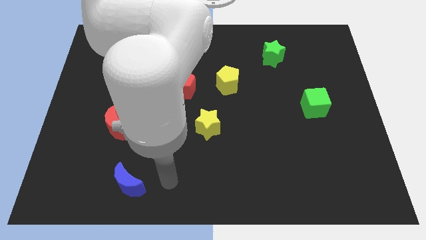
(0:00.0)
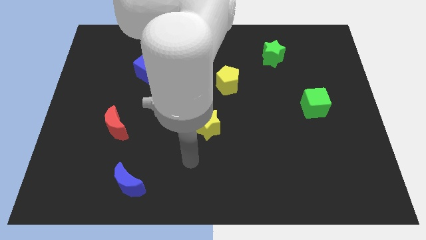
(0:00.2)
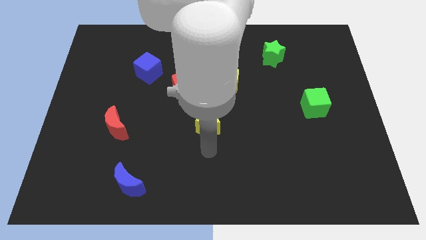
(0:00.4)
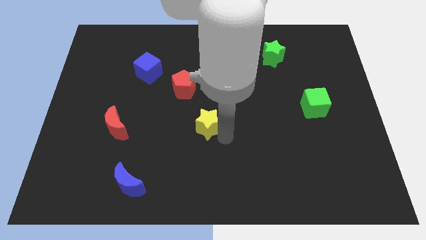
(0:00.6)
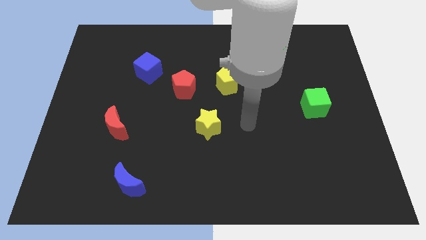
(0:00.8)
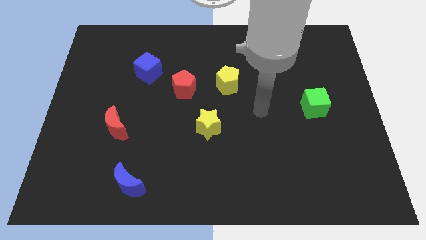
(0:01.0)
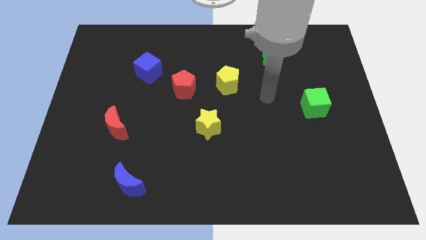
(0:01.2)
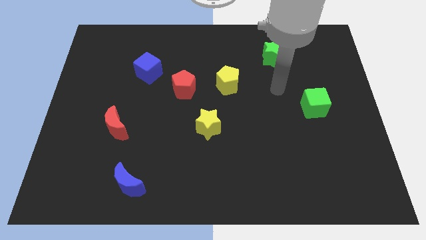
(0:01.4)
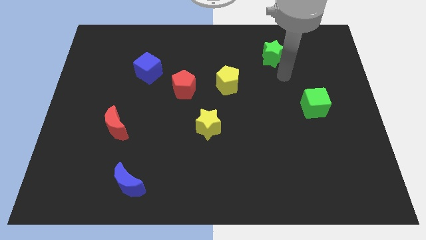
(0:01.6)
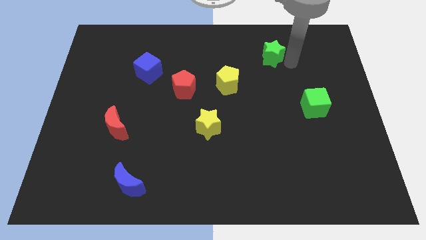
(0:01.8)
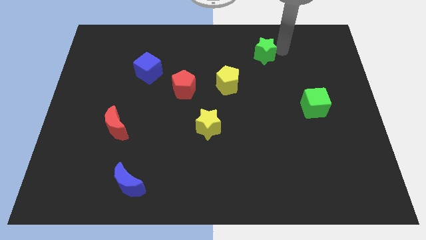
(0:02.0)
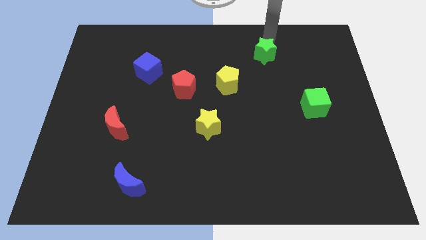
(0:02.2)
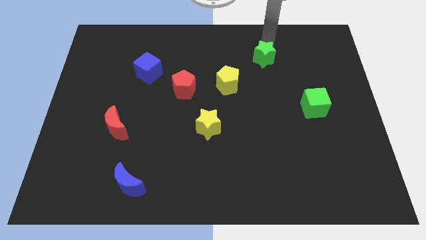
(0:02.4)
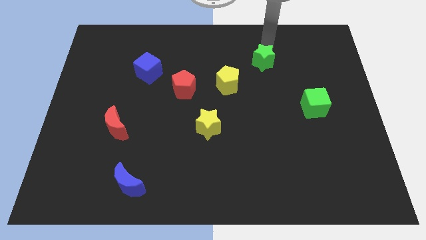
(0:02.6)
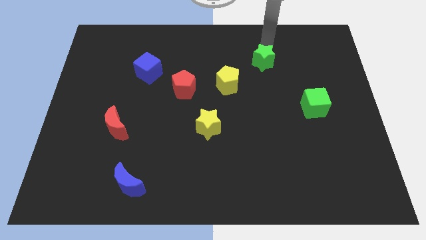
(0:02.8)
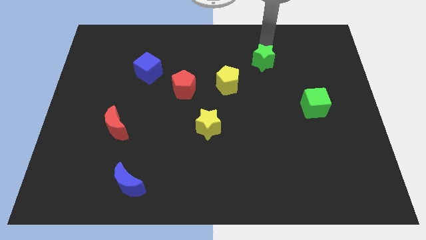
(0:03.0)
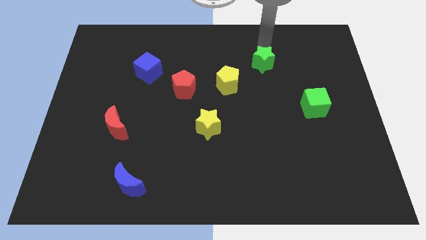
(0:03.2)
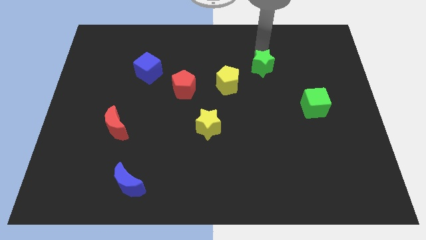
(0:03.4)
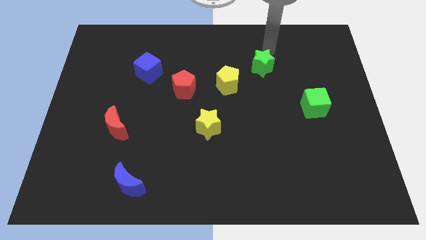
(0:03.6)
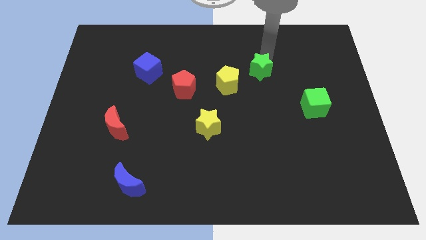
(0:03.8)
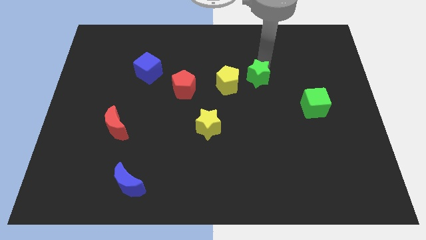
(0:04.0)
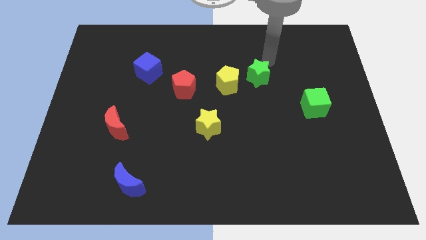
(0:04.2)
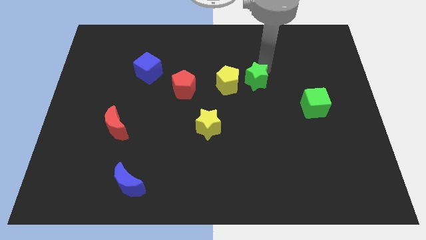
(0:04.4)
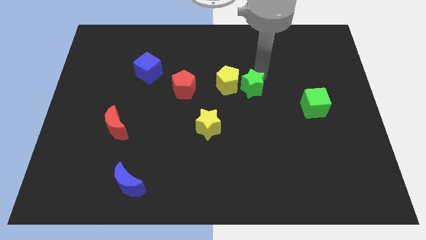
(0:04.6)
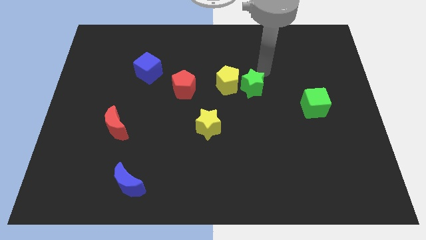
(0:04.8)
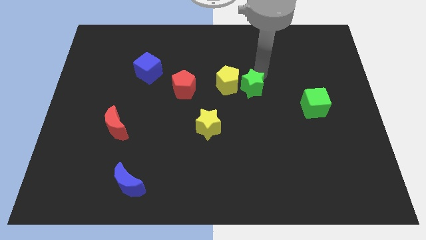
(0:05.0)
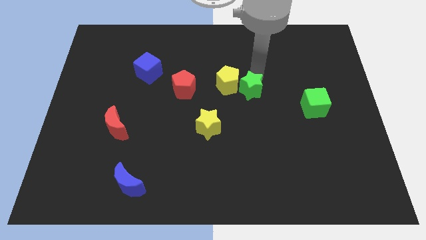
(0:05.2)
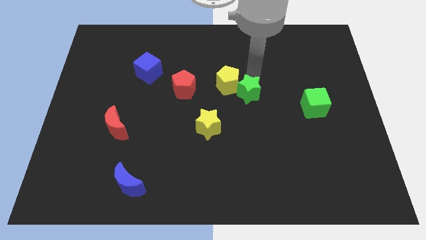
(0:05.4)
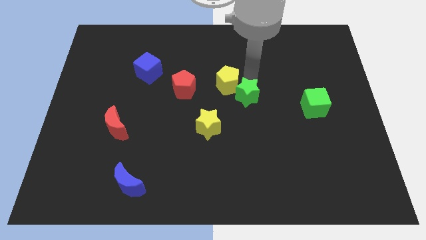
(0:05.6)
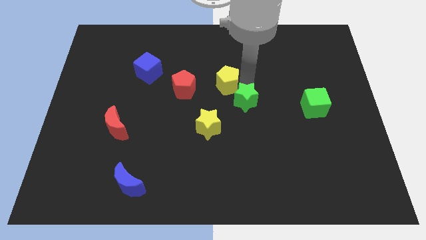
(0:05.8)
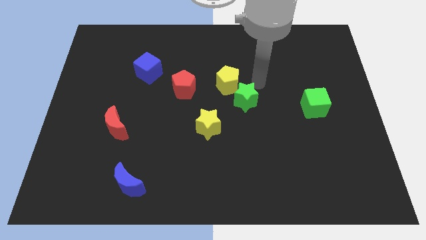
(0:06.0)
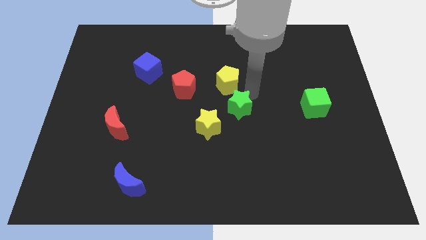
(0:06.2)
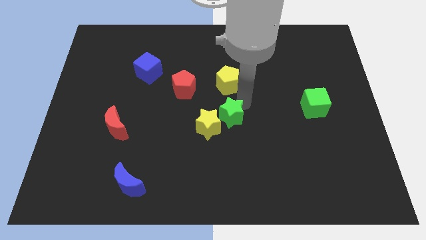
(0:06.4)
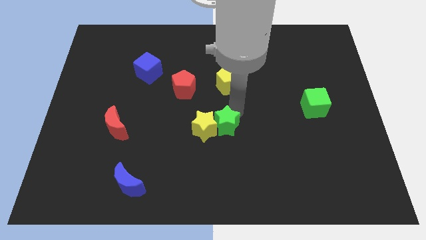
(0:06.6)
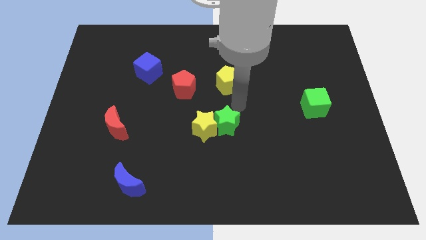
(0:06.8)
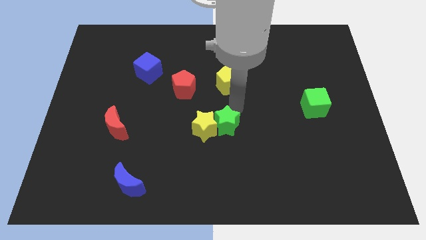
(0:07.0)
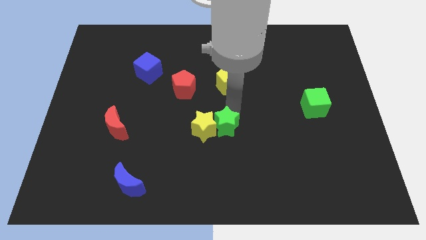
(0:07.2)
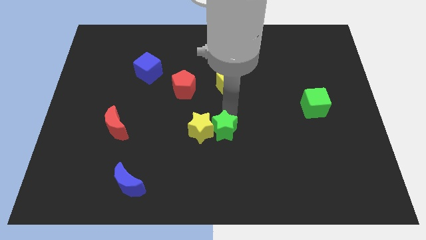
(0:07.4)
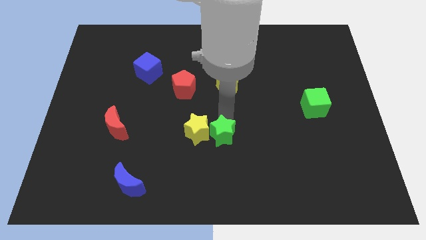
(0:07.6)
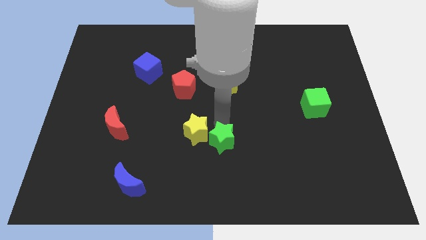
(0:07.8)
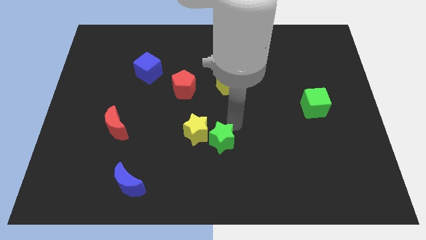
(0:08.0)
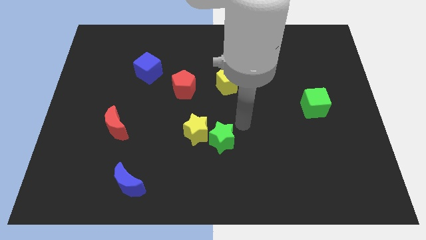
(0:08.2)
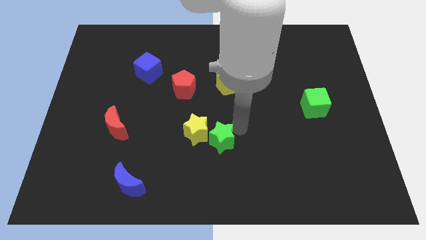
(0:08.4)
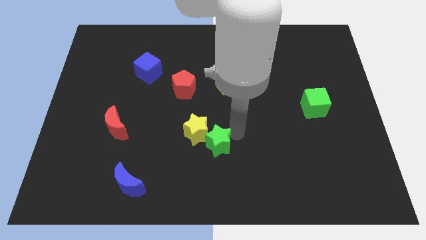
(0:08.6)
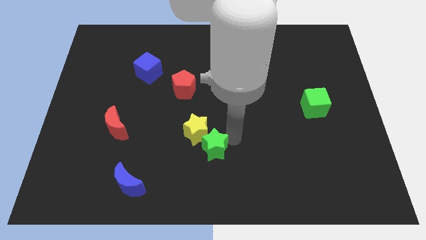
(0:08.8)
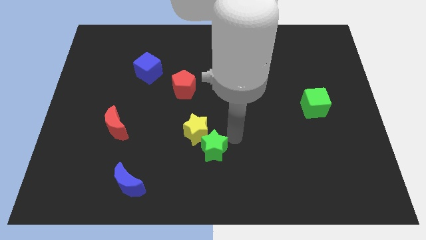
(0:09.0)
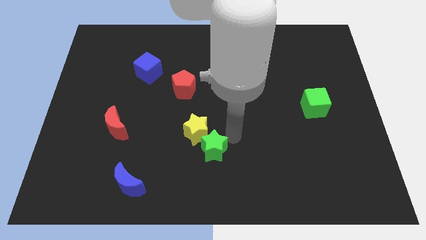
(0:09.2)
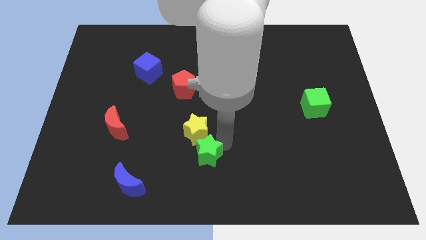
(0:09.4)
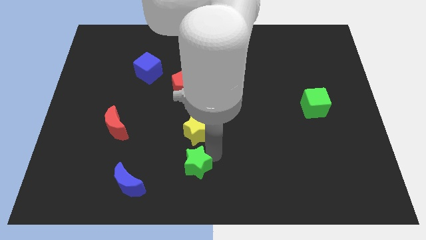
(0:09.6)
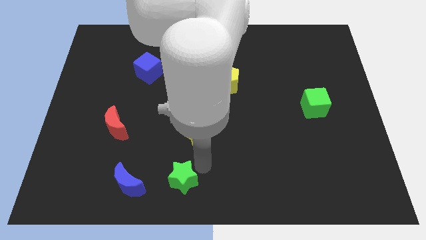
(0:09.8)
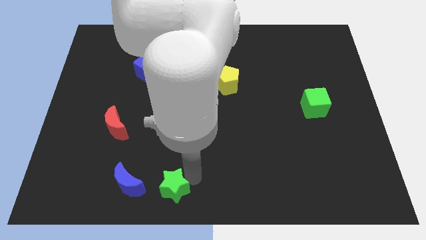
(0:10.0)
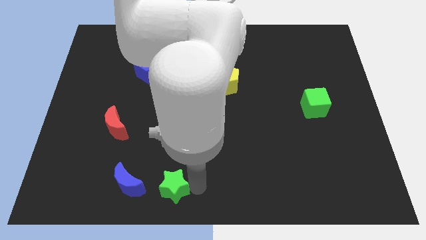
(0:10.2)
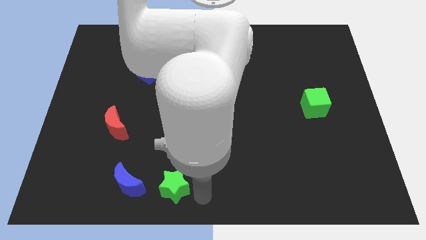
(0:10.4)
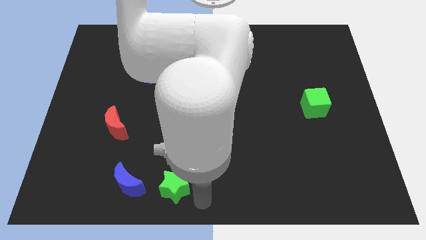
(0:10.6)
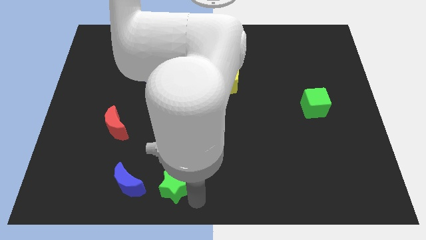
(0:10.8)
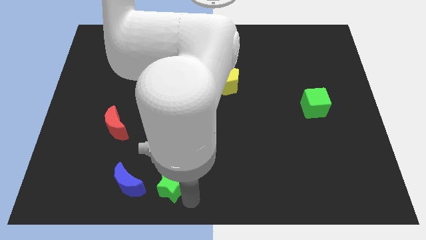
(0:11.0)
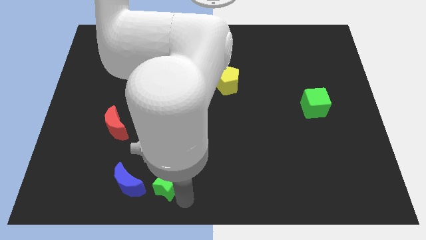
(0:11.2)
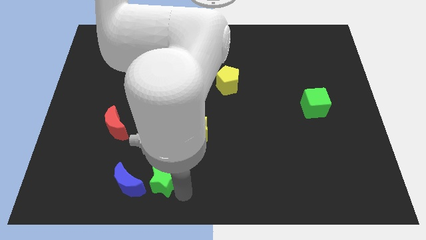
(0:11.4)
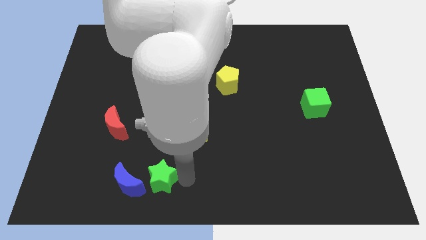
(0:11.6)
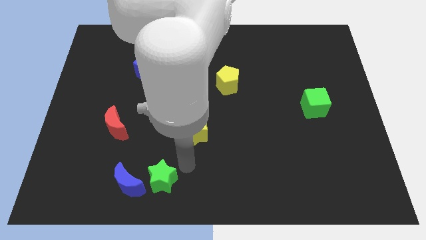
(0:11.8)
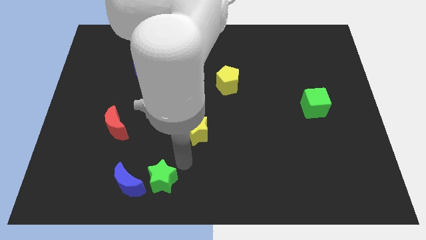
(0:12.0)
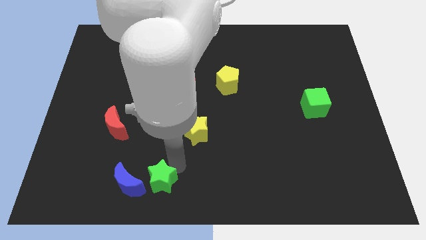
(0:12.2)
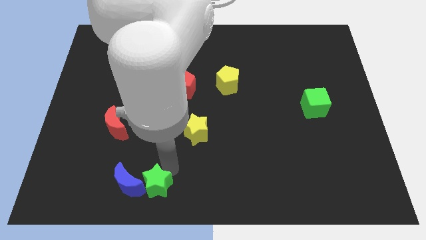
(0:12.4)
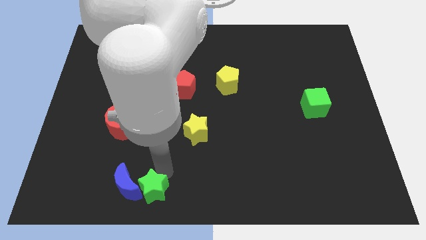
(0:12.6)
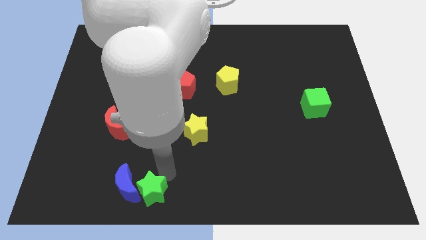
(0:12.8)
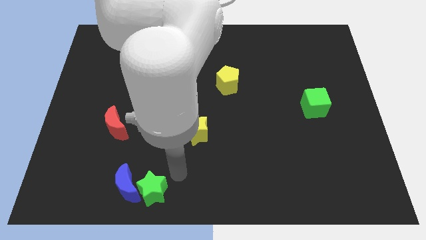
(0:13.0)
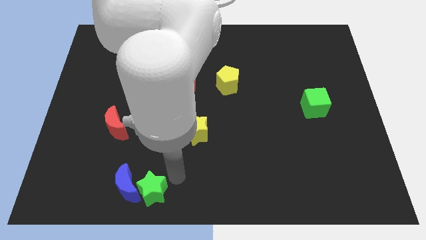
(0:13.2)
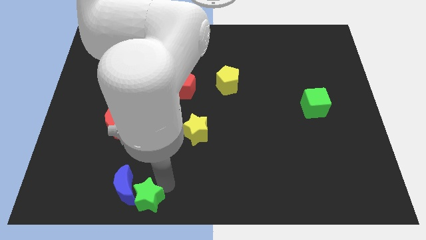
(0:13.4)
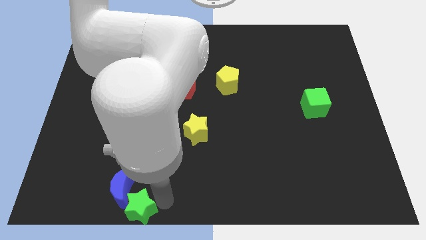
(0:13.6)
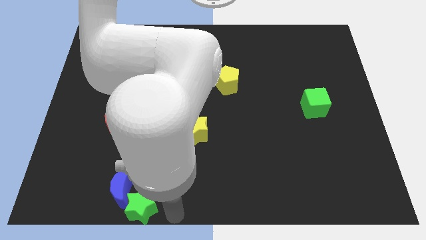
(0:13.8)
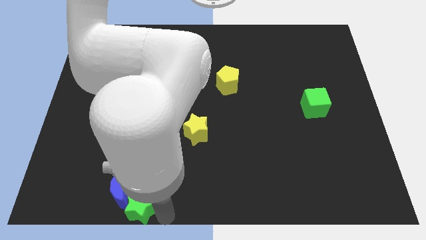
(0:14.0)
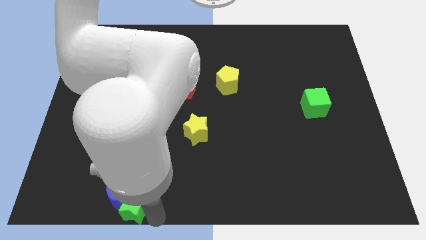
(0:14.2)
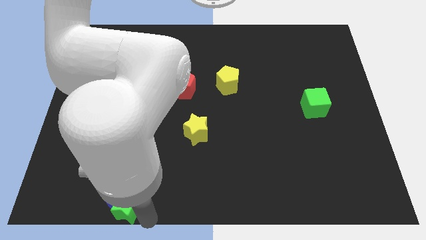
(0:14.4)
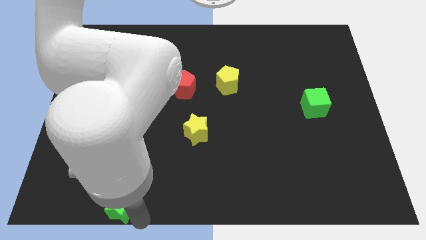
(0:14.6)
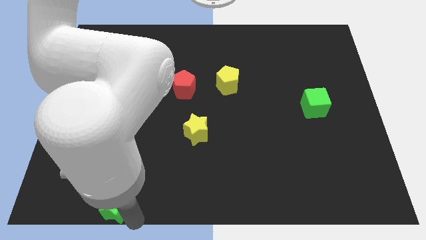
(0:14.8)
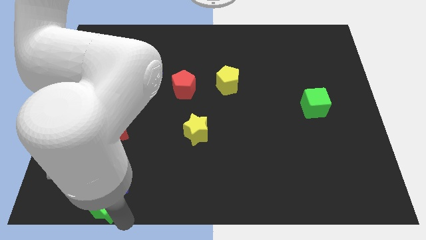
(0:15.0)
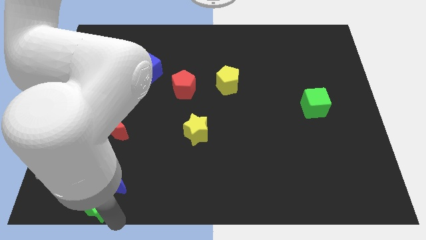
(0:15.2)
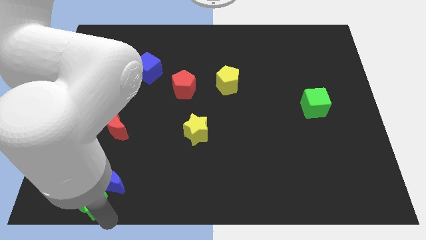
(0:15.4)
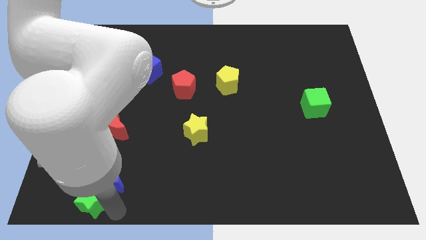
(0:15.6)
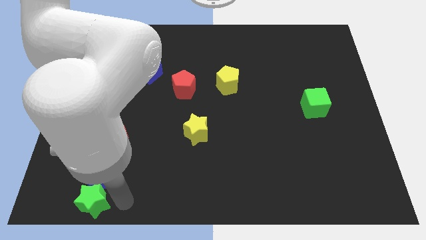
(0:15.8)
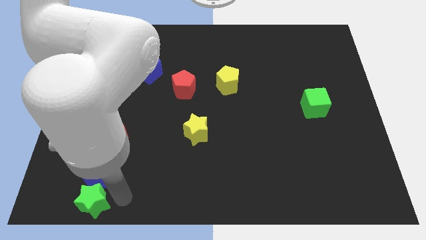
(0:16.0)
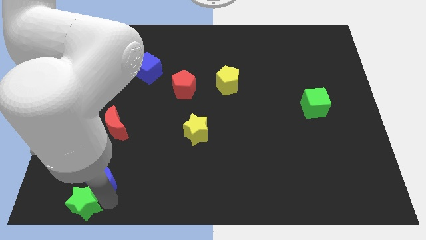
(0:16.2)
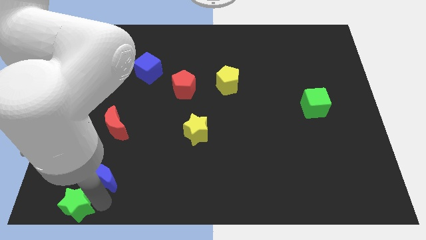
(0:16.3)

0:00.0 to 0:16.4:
put the green star to the bottom left of the board
